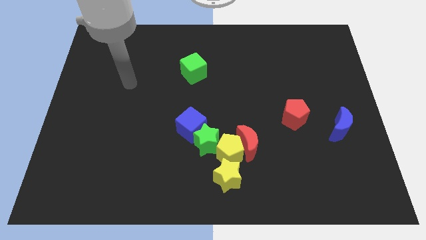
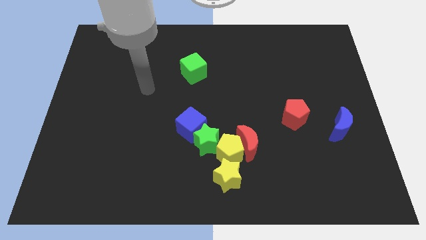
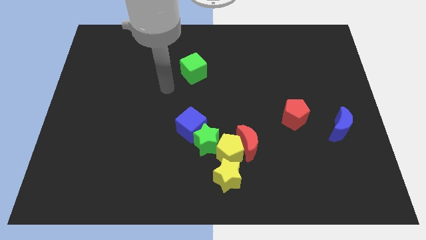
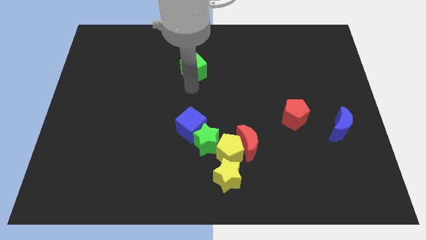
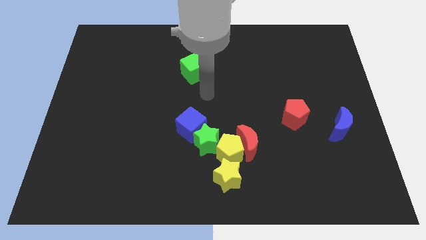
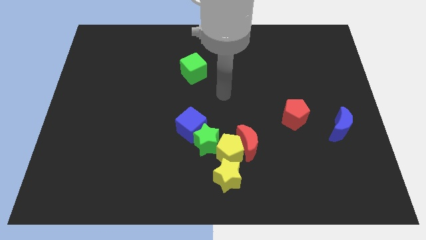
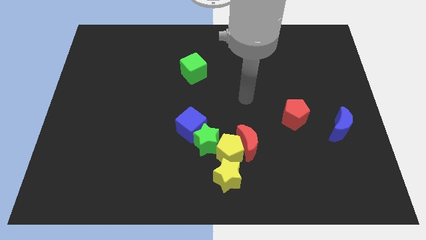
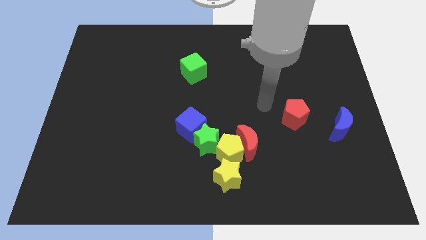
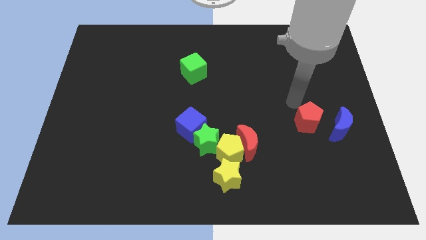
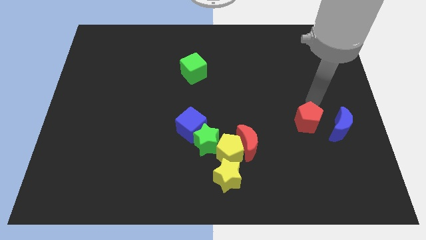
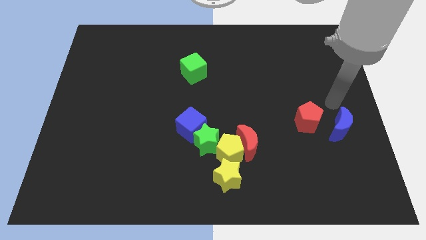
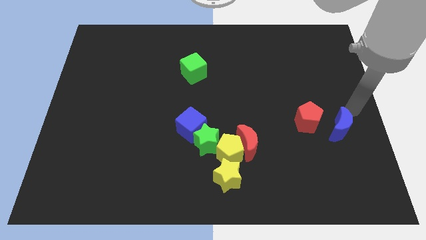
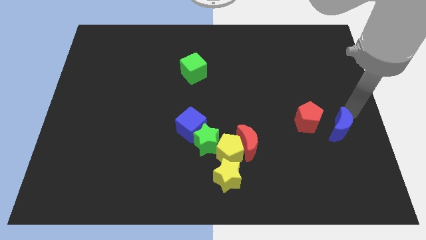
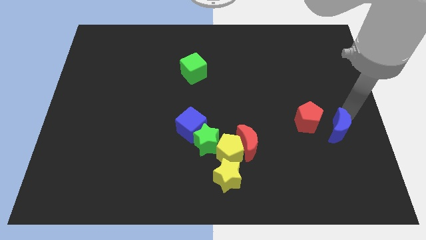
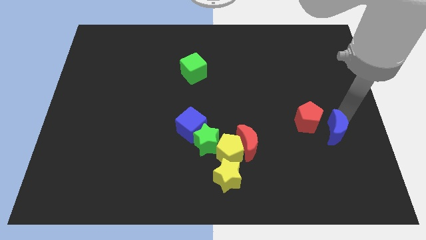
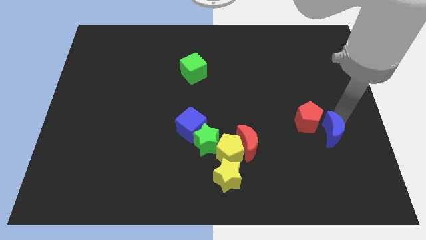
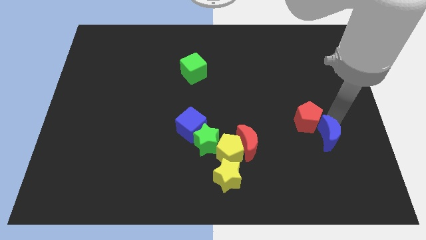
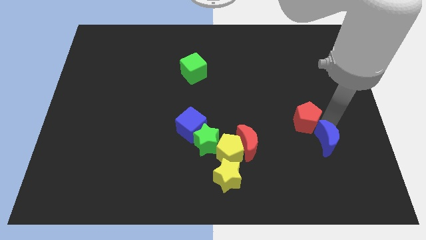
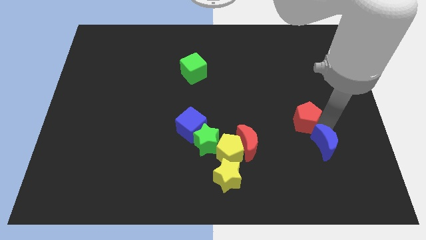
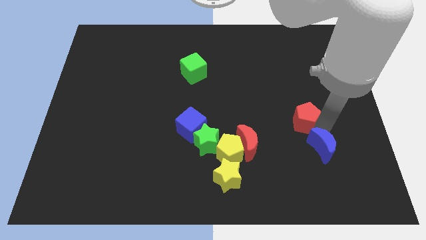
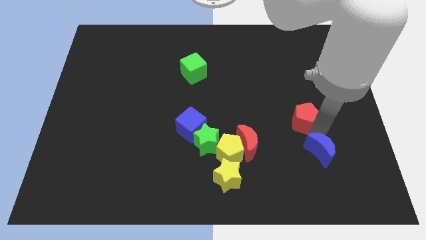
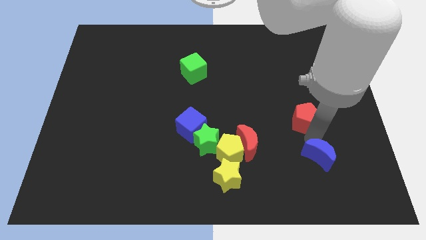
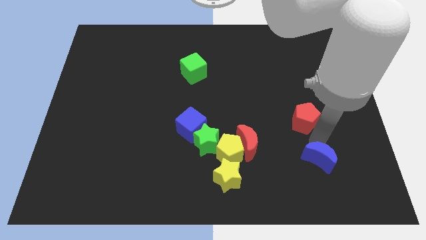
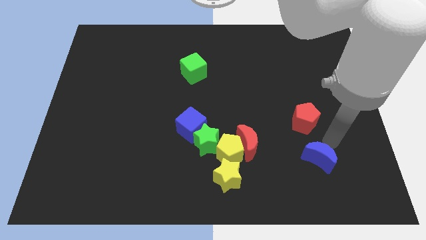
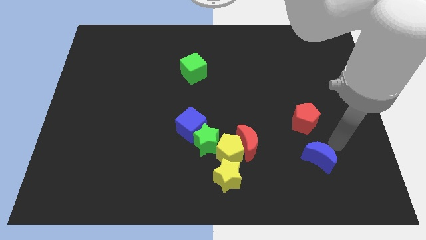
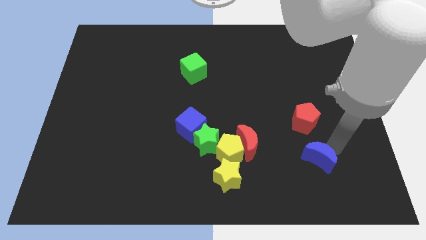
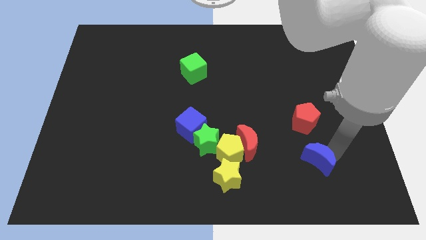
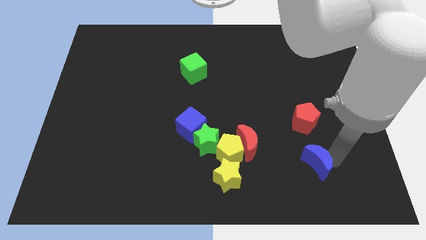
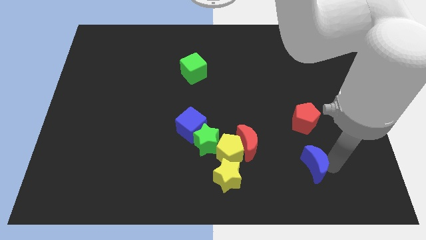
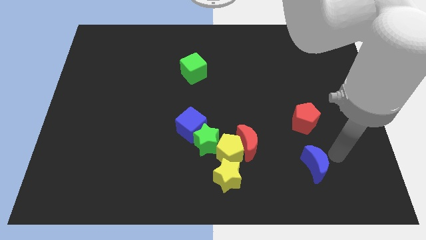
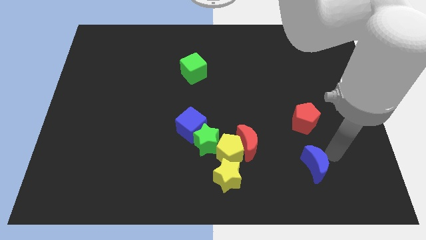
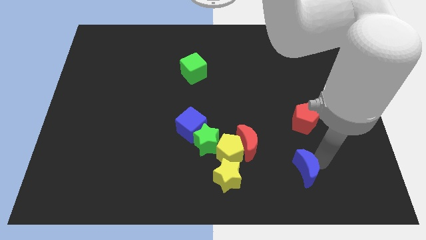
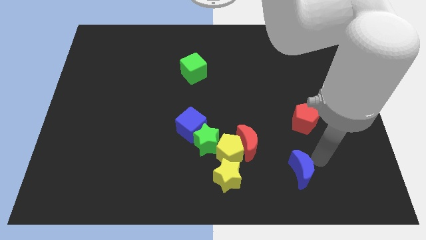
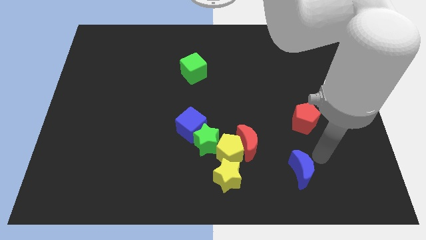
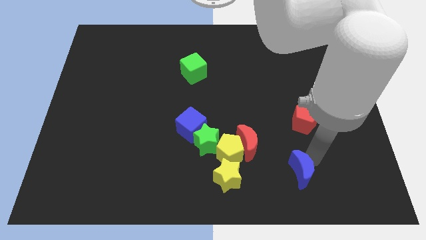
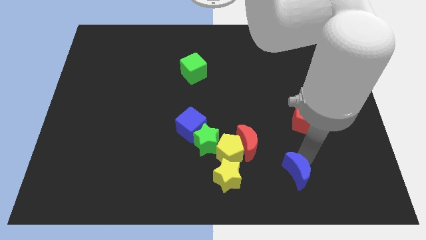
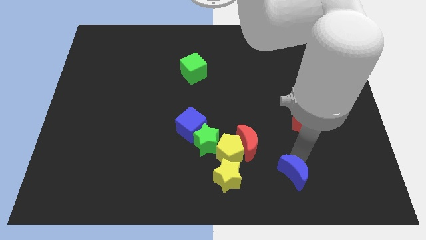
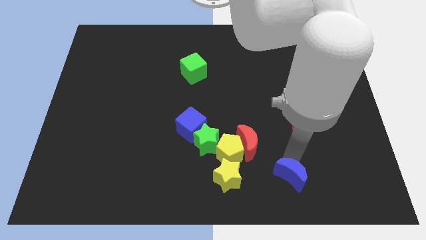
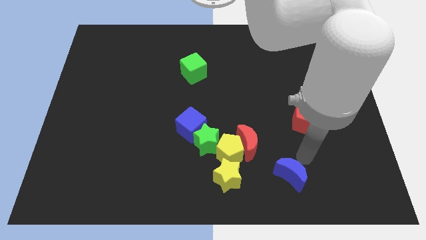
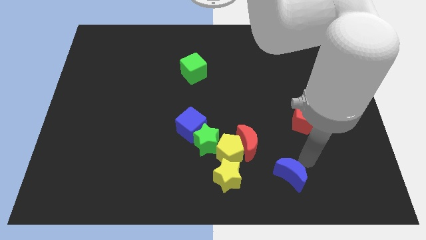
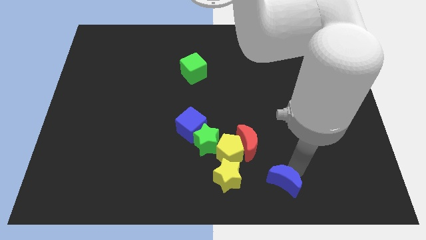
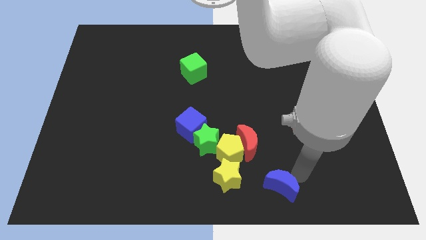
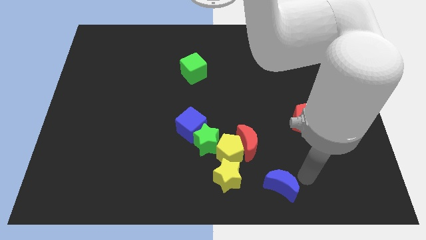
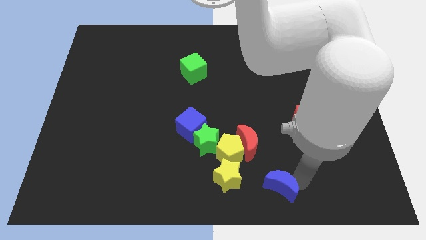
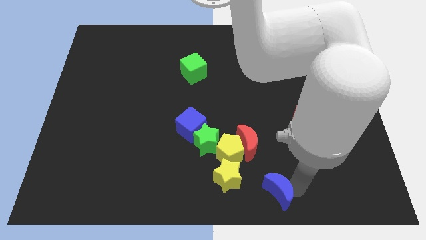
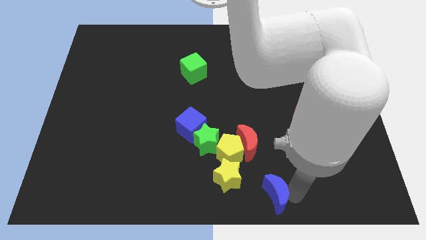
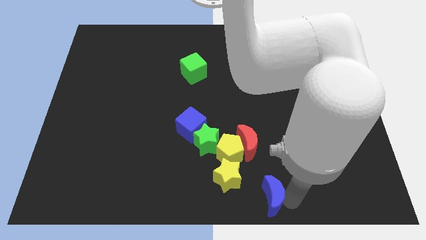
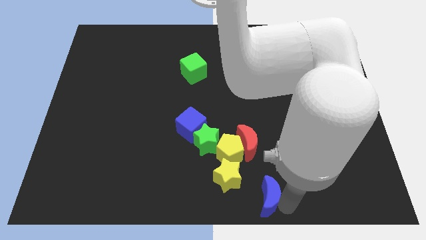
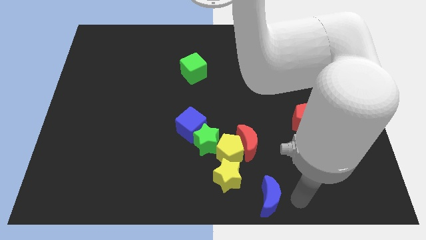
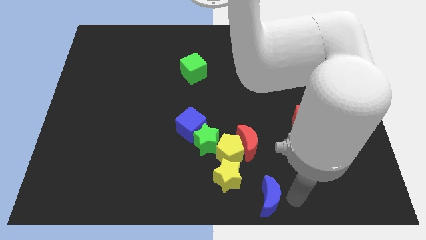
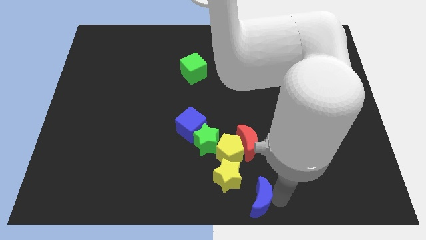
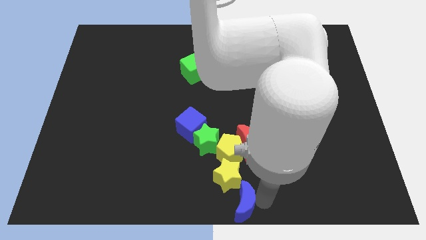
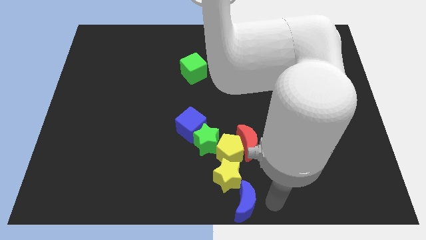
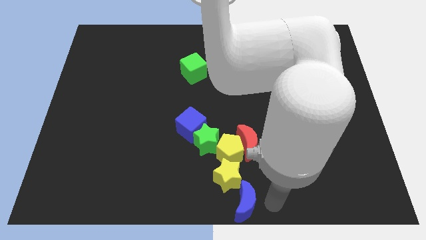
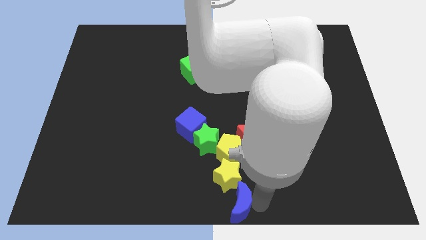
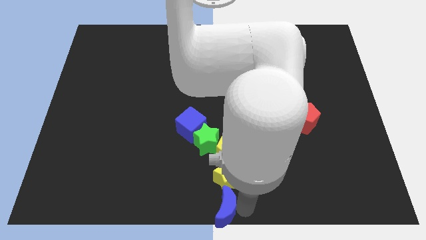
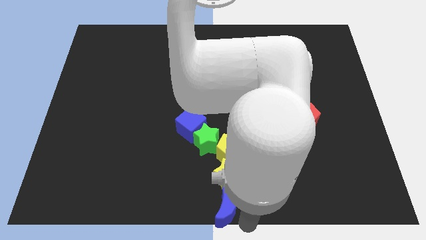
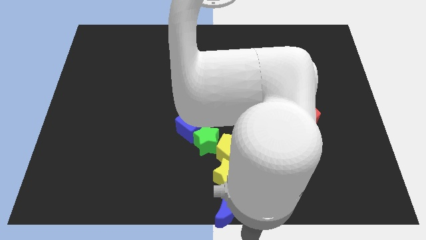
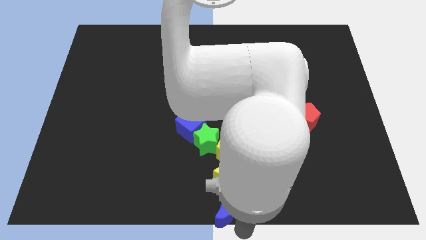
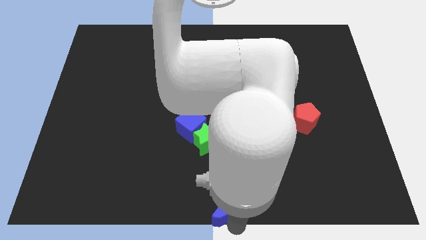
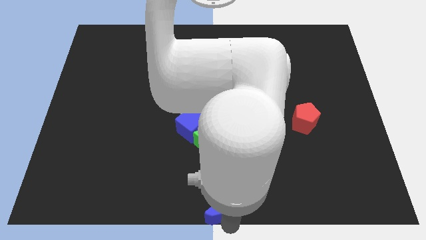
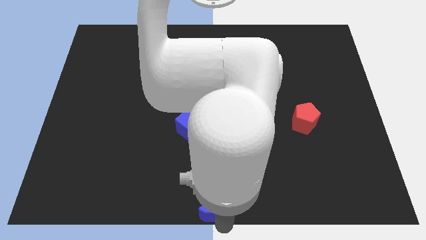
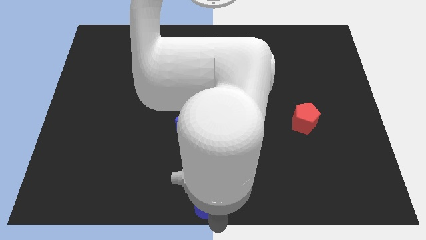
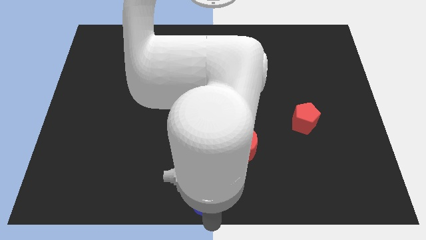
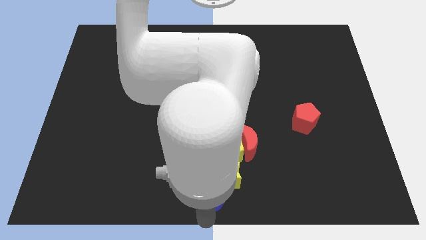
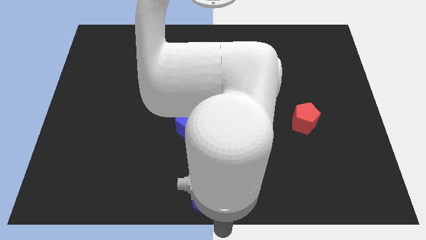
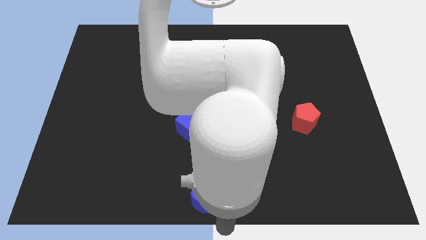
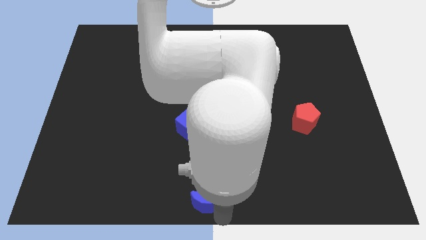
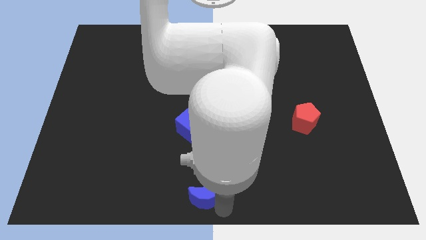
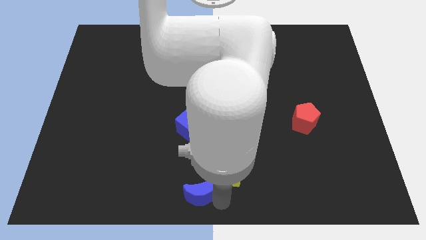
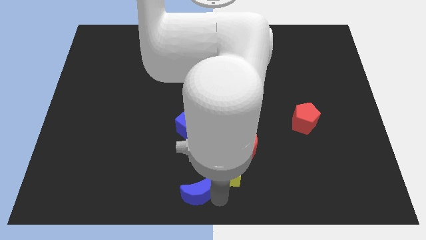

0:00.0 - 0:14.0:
put the blue moon to the bottom of the blue cube
